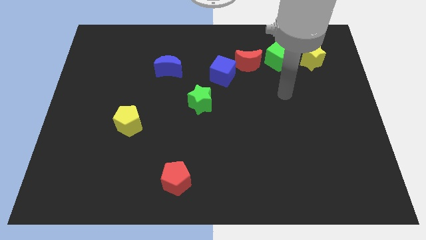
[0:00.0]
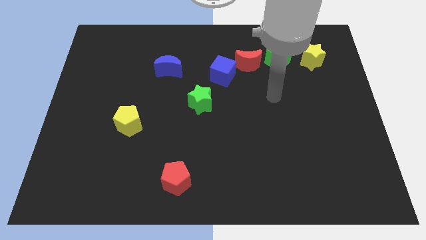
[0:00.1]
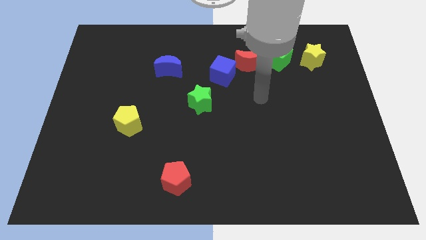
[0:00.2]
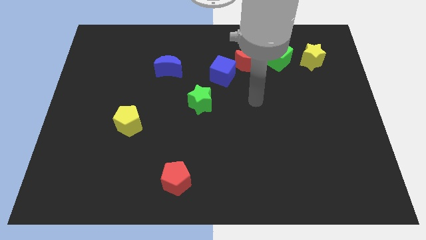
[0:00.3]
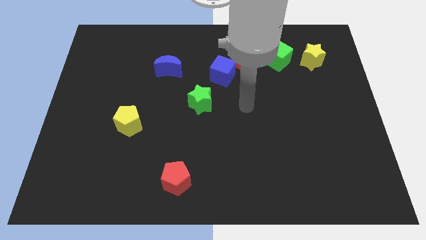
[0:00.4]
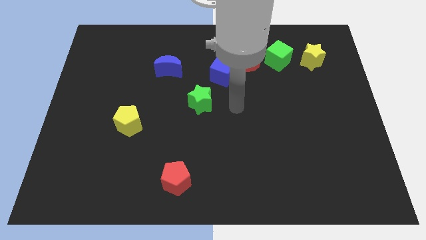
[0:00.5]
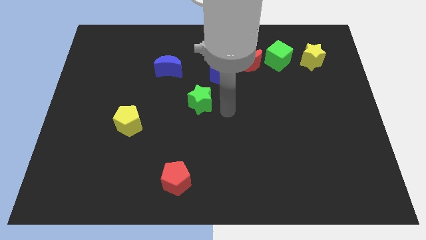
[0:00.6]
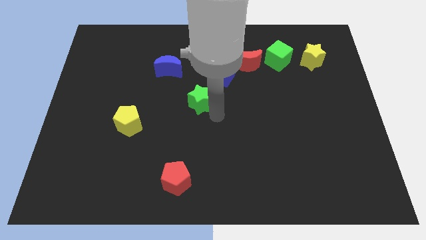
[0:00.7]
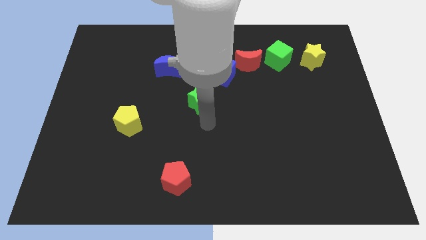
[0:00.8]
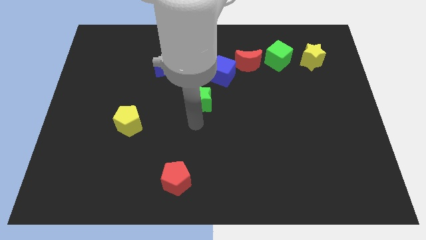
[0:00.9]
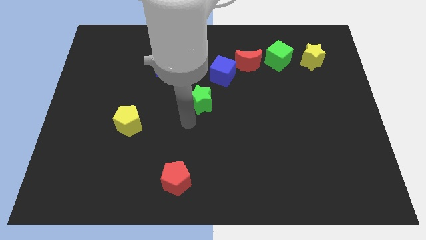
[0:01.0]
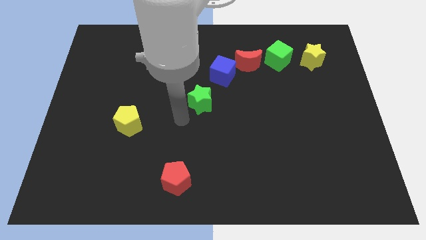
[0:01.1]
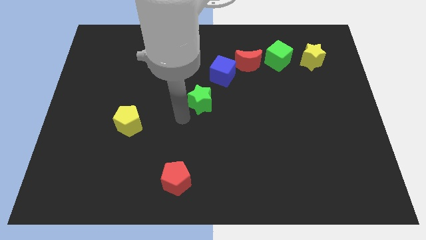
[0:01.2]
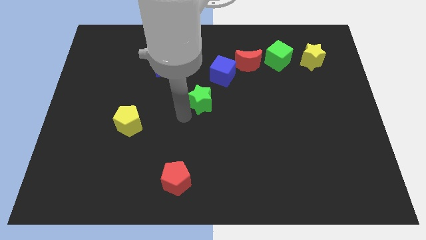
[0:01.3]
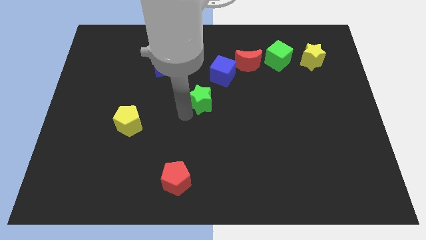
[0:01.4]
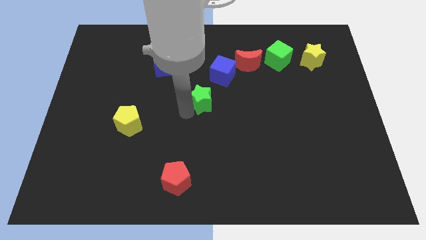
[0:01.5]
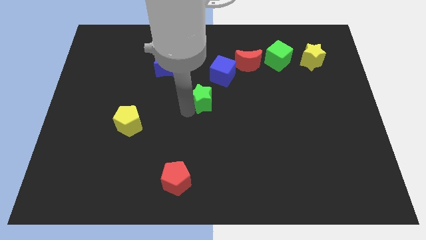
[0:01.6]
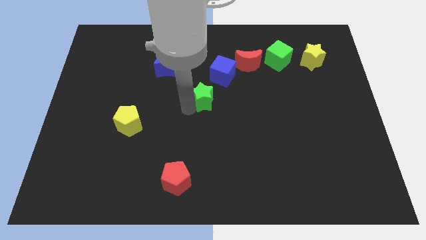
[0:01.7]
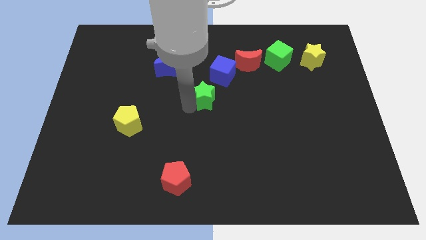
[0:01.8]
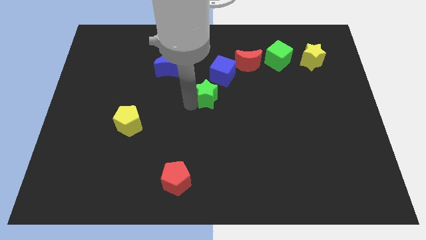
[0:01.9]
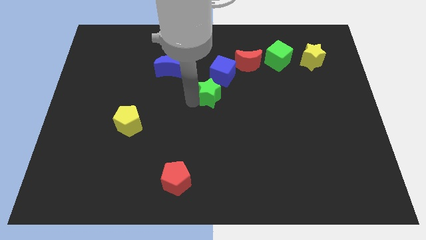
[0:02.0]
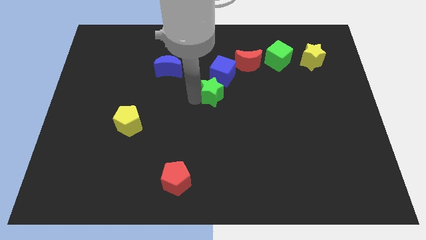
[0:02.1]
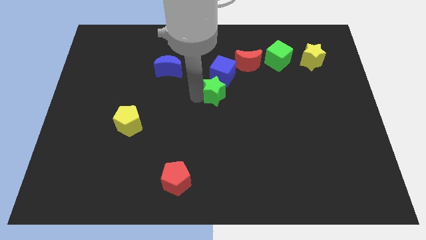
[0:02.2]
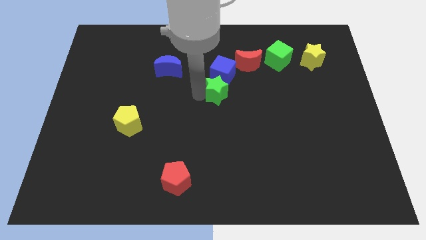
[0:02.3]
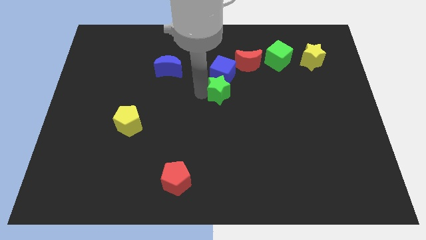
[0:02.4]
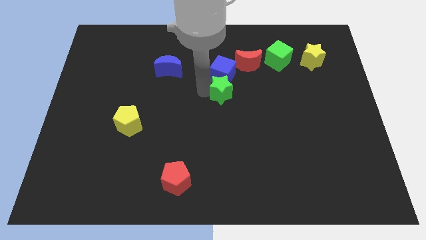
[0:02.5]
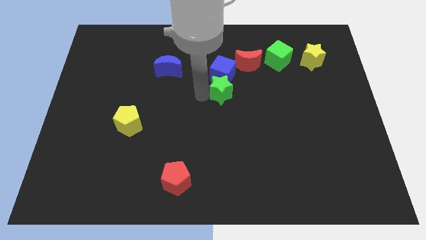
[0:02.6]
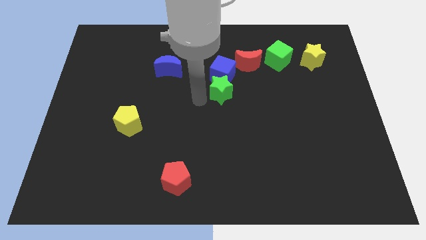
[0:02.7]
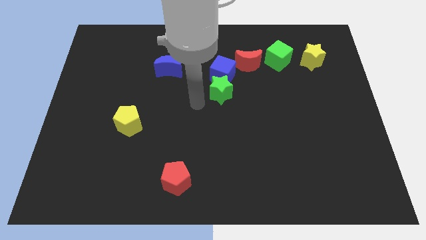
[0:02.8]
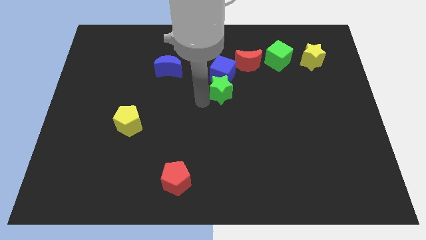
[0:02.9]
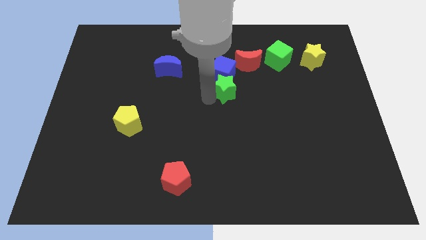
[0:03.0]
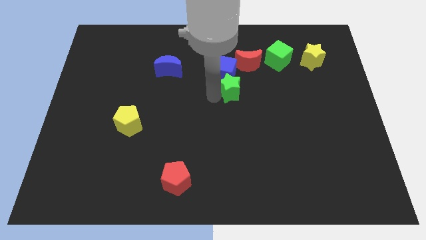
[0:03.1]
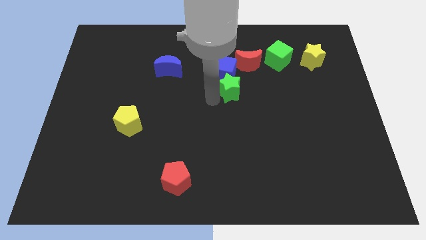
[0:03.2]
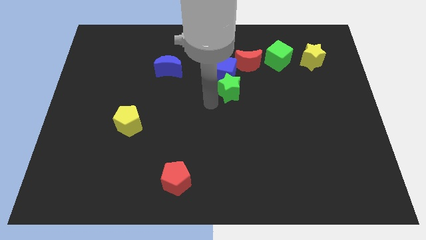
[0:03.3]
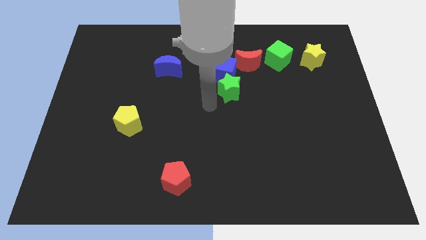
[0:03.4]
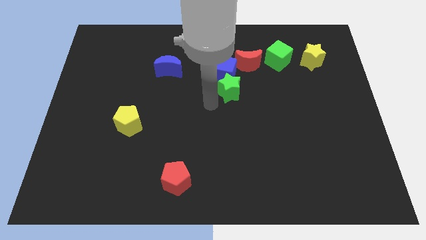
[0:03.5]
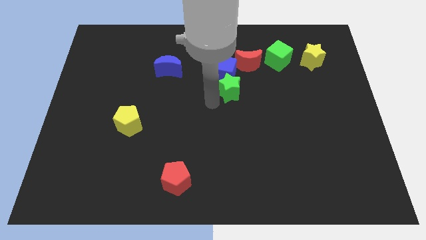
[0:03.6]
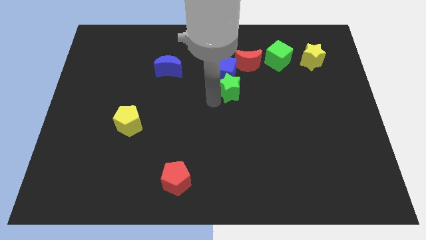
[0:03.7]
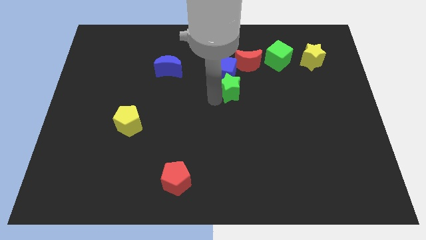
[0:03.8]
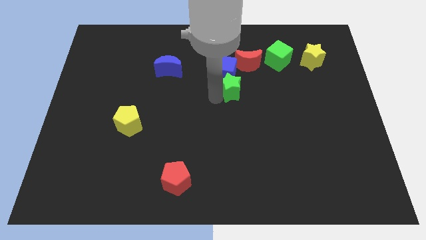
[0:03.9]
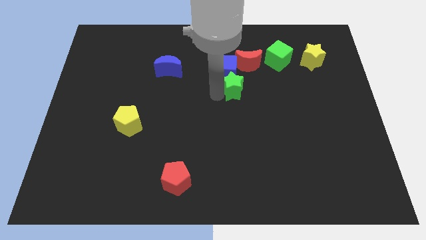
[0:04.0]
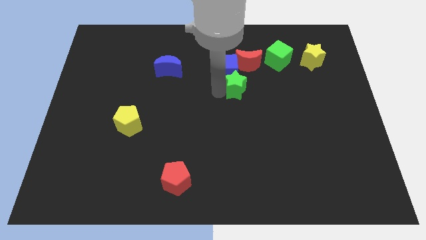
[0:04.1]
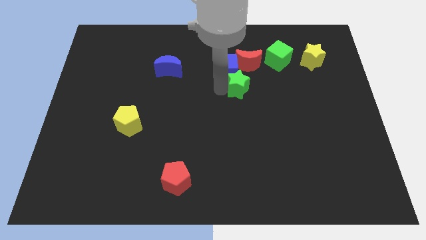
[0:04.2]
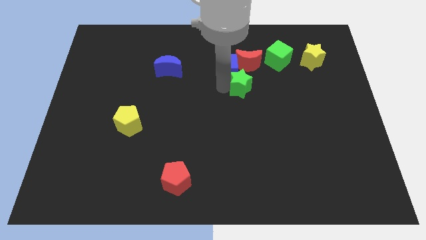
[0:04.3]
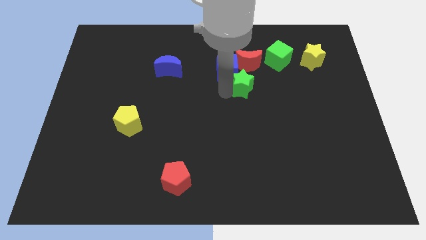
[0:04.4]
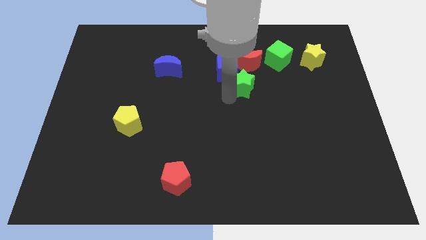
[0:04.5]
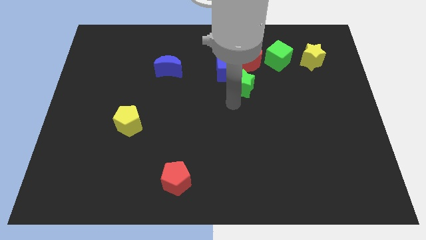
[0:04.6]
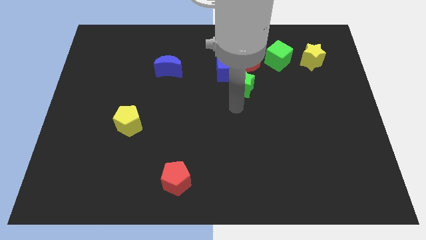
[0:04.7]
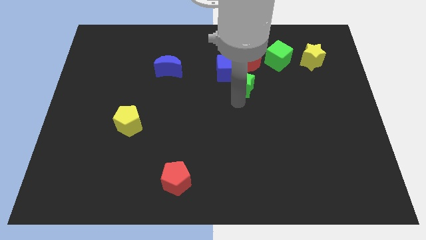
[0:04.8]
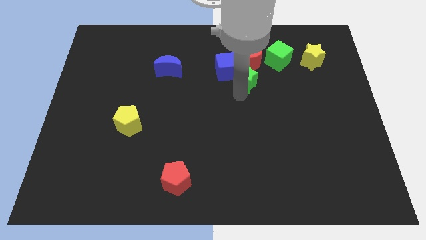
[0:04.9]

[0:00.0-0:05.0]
push the green star close to the red moon

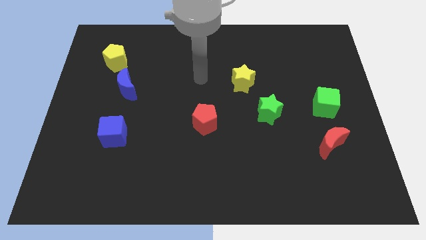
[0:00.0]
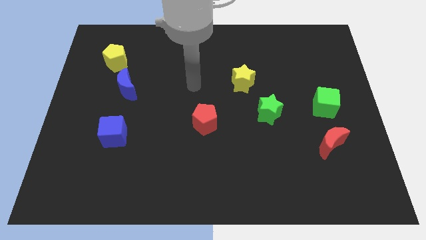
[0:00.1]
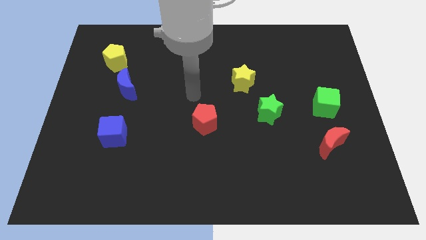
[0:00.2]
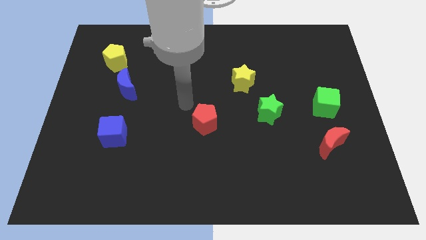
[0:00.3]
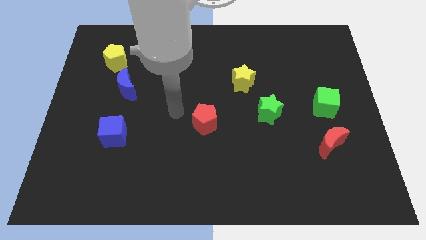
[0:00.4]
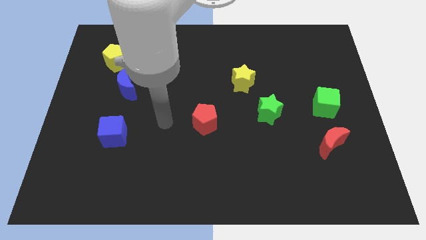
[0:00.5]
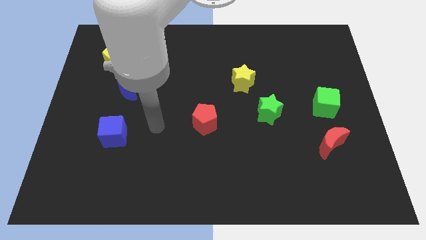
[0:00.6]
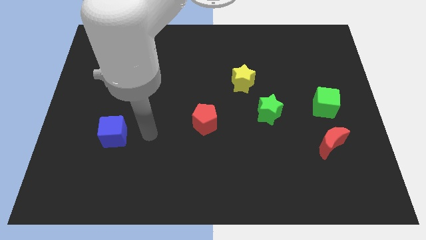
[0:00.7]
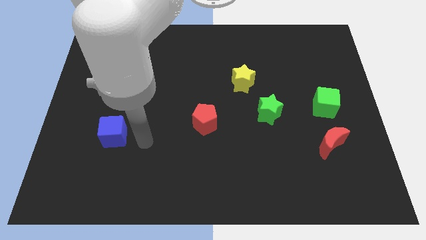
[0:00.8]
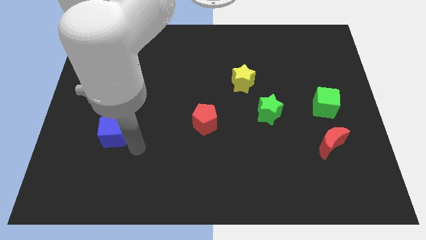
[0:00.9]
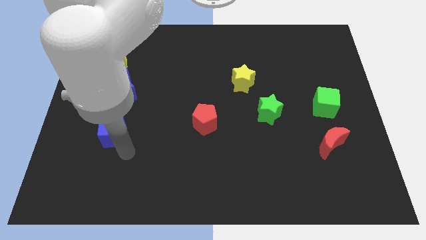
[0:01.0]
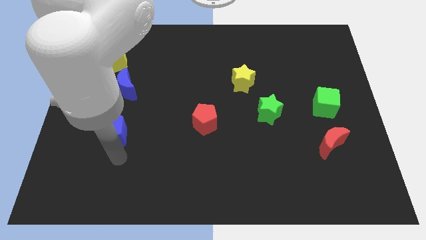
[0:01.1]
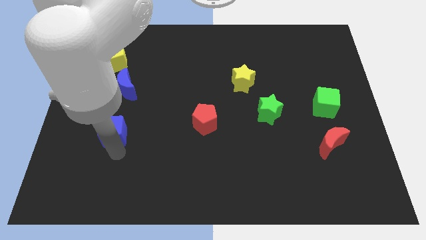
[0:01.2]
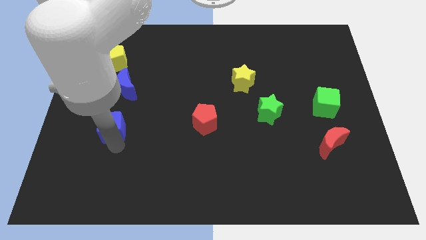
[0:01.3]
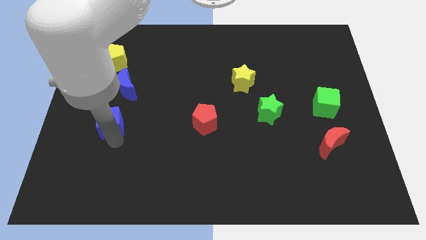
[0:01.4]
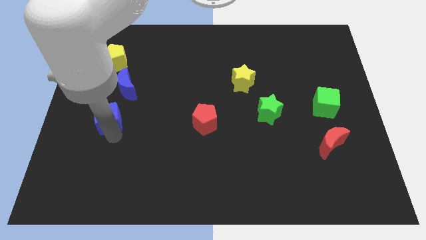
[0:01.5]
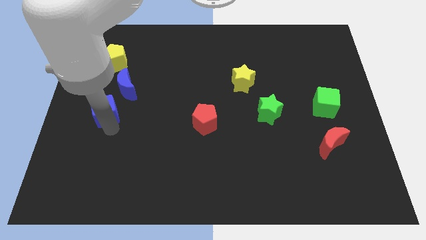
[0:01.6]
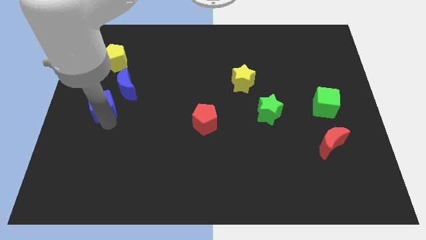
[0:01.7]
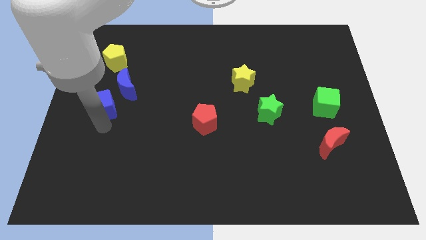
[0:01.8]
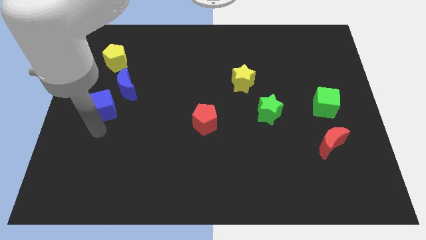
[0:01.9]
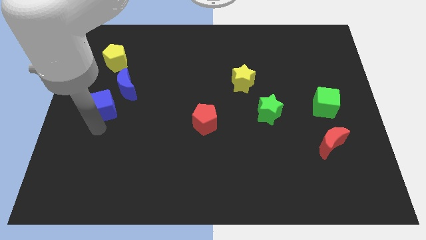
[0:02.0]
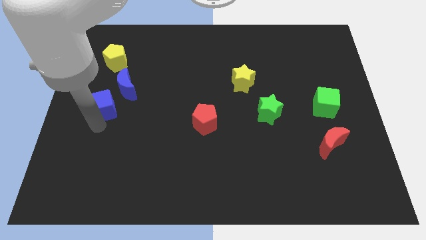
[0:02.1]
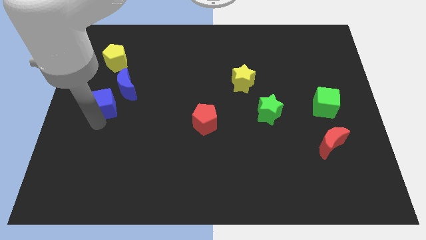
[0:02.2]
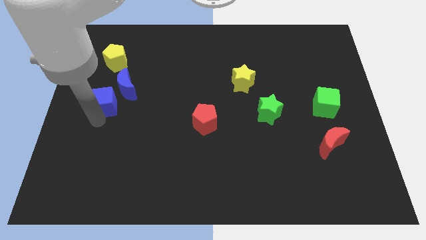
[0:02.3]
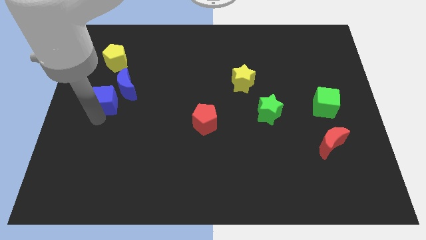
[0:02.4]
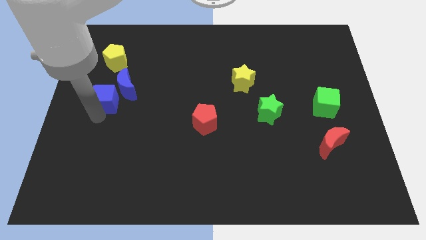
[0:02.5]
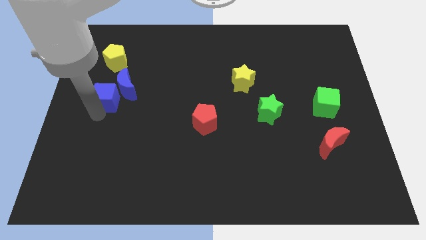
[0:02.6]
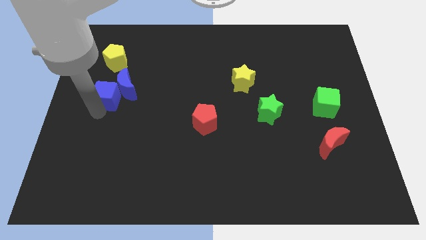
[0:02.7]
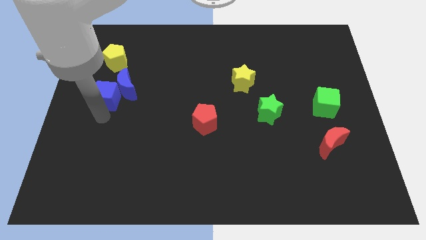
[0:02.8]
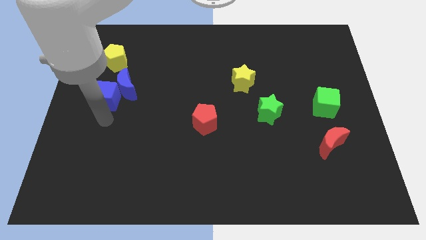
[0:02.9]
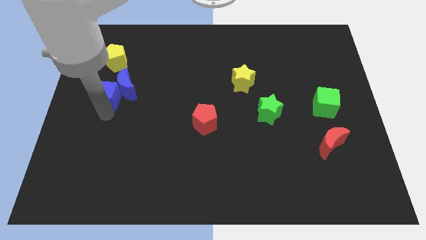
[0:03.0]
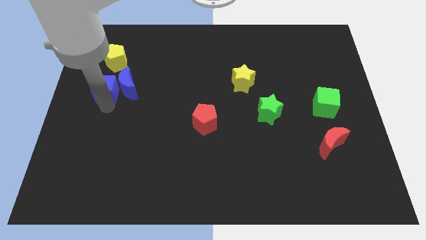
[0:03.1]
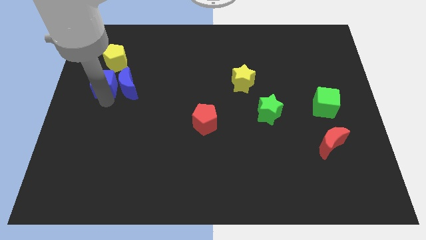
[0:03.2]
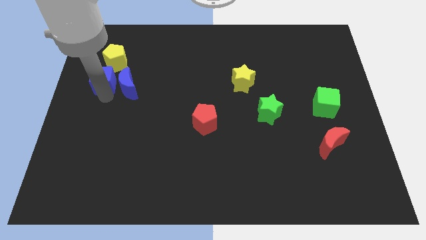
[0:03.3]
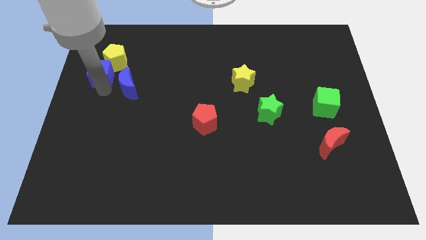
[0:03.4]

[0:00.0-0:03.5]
slide the blue cube towards the yellow pentagon

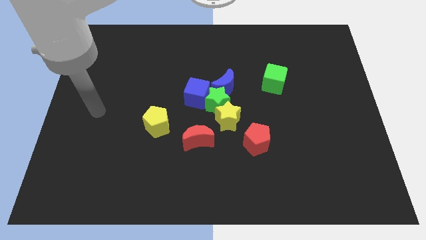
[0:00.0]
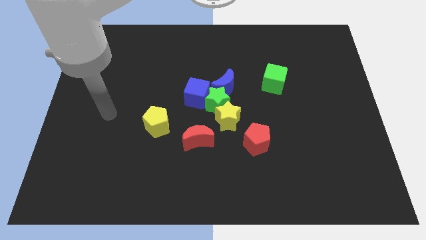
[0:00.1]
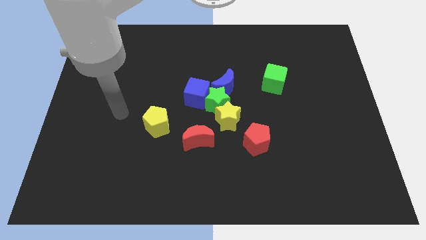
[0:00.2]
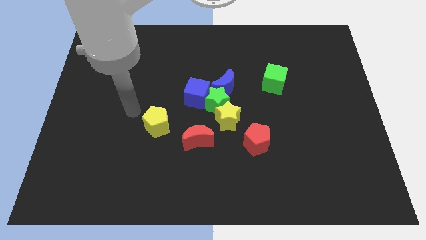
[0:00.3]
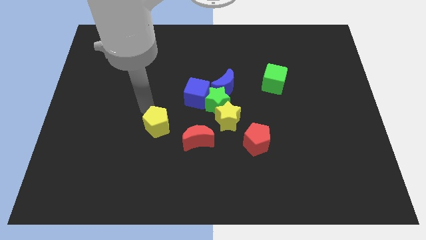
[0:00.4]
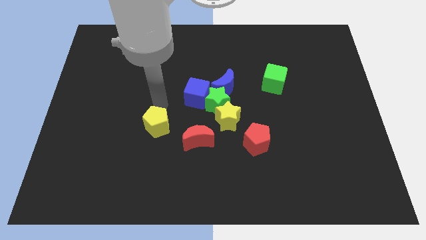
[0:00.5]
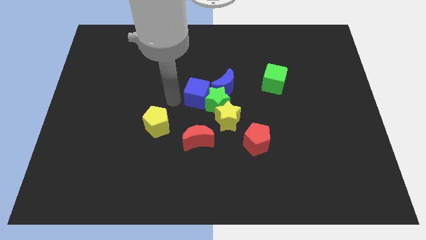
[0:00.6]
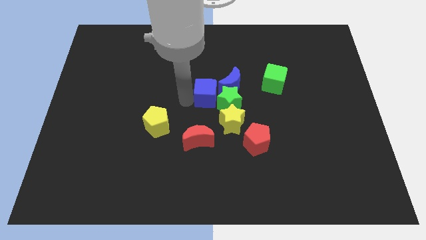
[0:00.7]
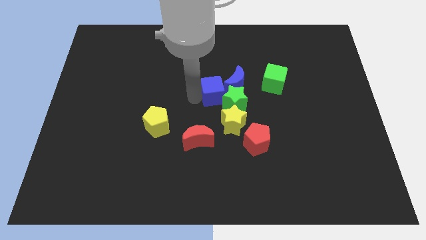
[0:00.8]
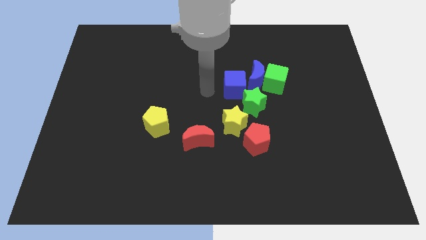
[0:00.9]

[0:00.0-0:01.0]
put the blue moon close to the green cube
